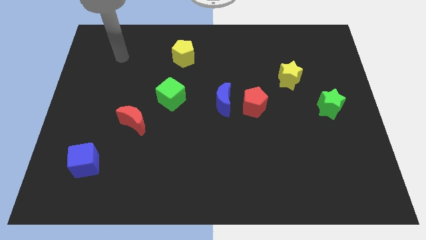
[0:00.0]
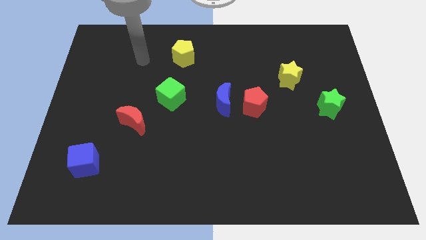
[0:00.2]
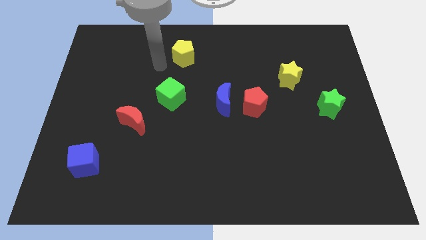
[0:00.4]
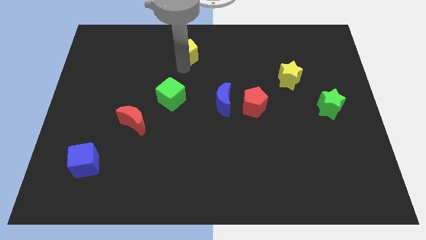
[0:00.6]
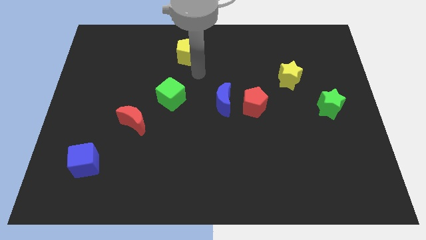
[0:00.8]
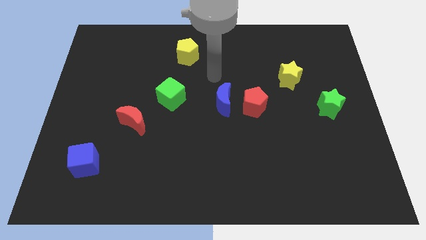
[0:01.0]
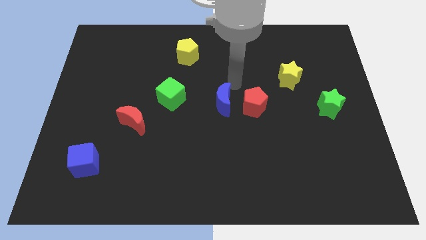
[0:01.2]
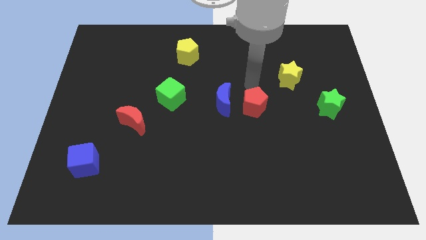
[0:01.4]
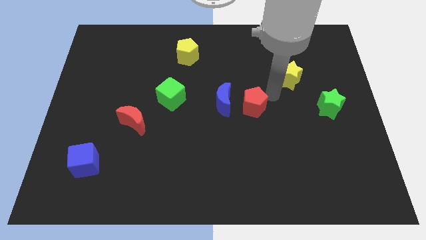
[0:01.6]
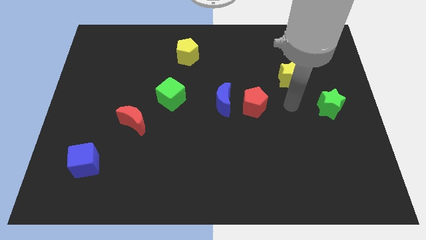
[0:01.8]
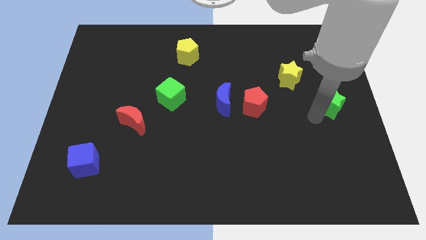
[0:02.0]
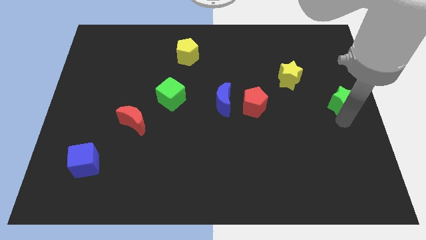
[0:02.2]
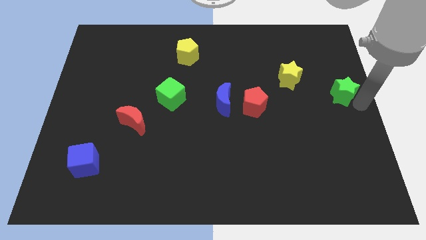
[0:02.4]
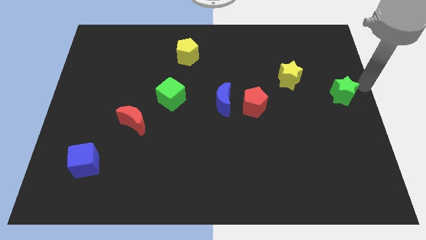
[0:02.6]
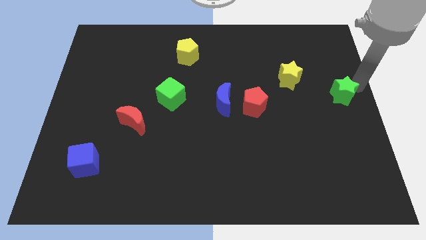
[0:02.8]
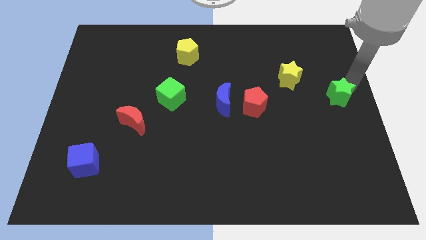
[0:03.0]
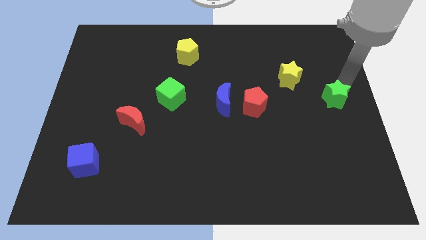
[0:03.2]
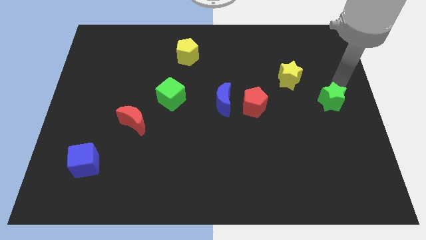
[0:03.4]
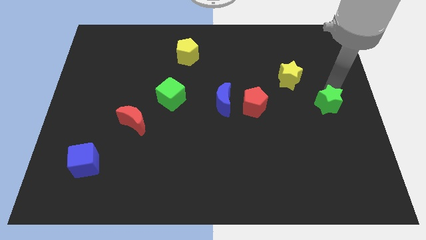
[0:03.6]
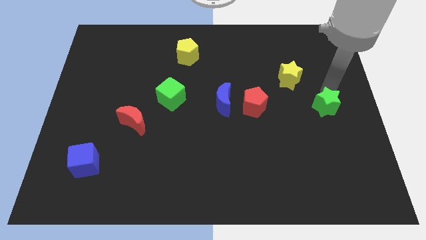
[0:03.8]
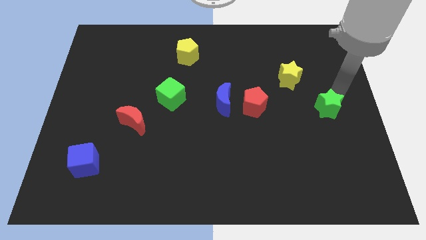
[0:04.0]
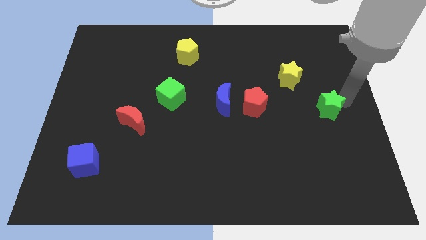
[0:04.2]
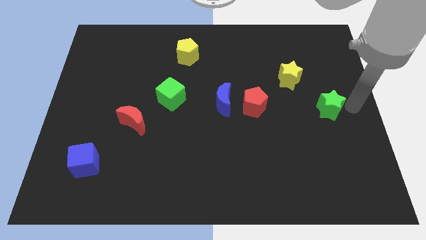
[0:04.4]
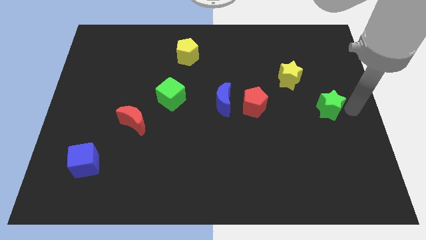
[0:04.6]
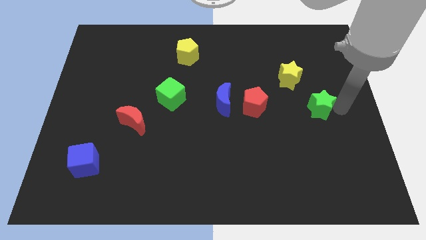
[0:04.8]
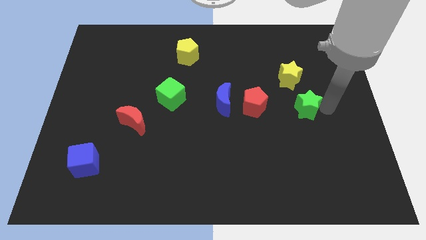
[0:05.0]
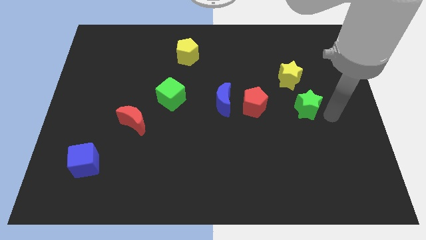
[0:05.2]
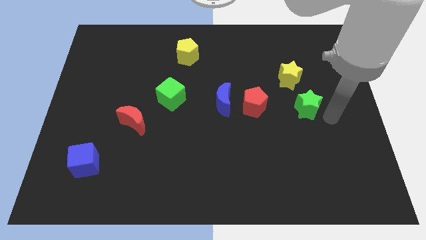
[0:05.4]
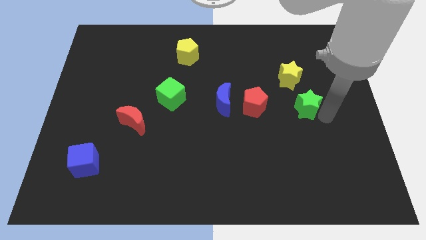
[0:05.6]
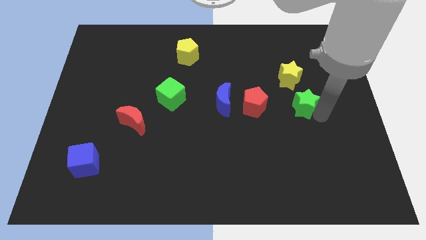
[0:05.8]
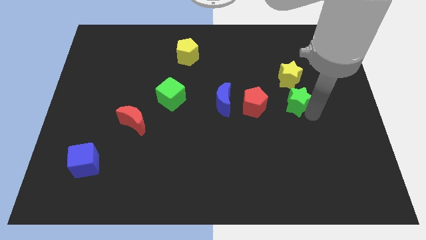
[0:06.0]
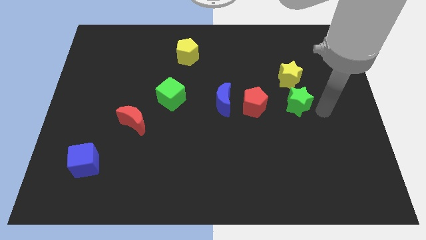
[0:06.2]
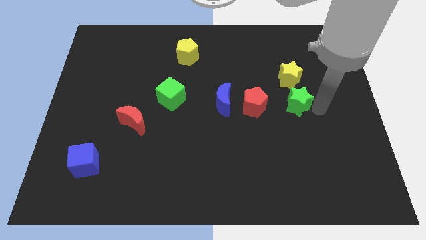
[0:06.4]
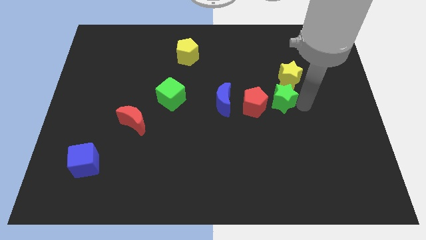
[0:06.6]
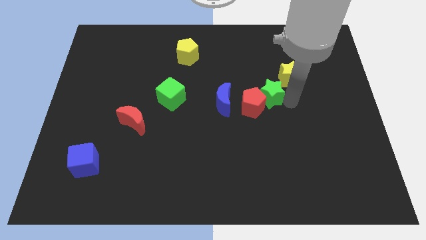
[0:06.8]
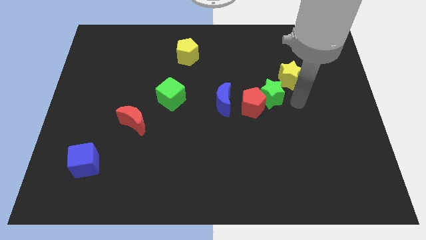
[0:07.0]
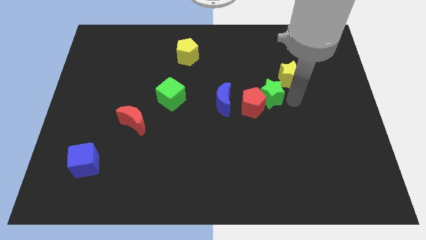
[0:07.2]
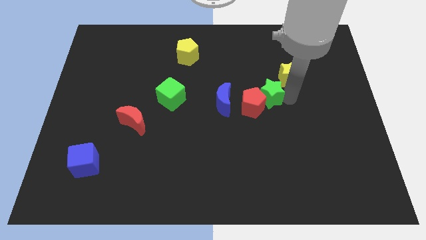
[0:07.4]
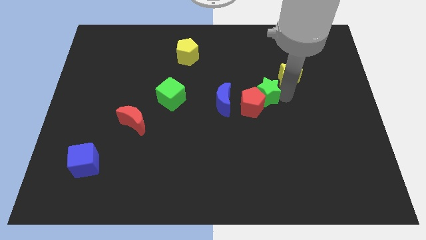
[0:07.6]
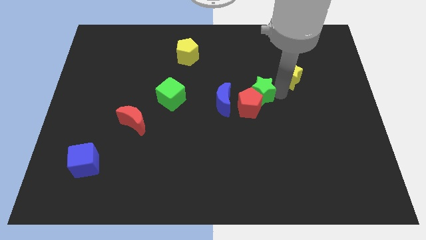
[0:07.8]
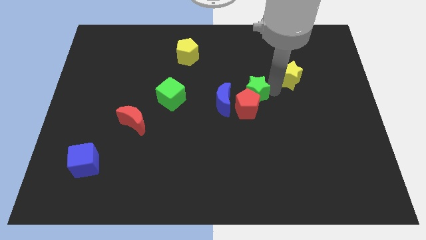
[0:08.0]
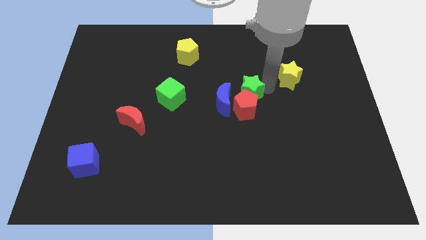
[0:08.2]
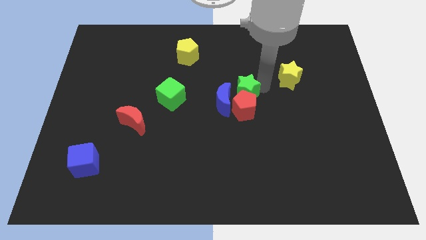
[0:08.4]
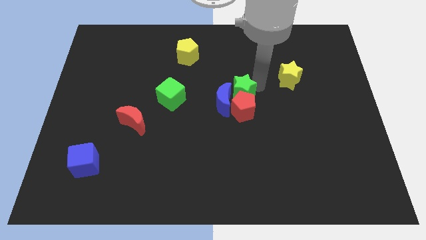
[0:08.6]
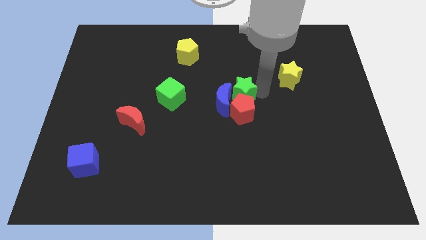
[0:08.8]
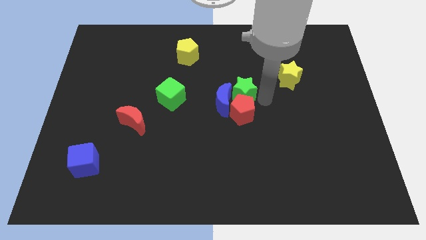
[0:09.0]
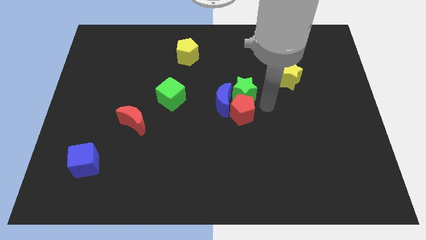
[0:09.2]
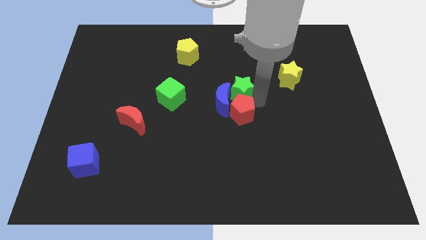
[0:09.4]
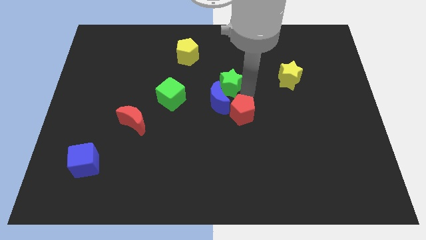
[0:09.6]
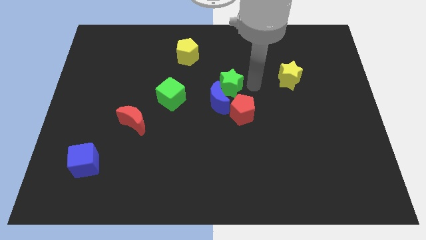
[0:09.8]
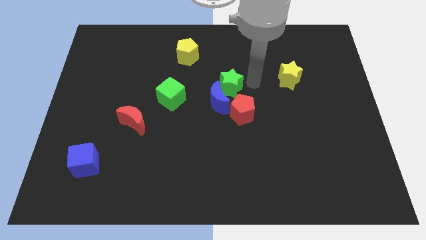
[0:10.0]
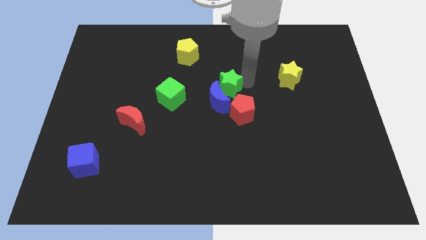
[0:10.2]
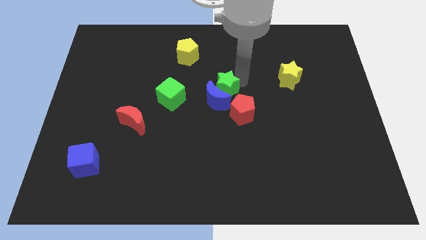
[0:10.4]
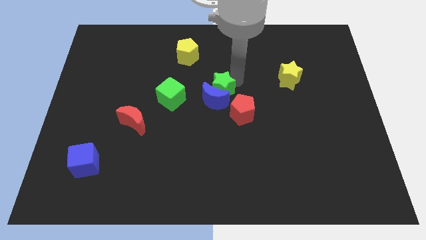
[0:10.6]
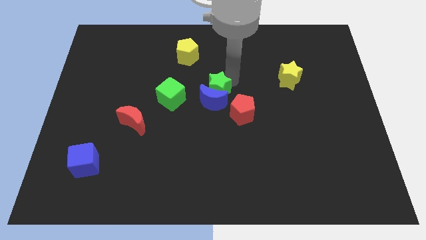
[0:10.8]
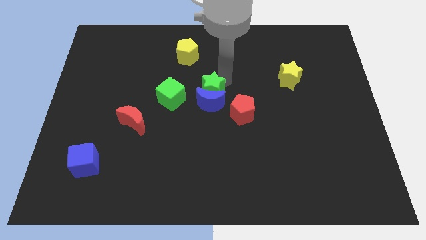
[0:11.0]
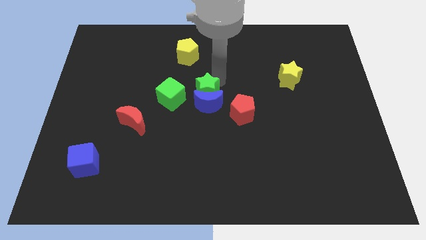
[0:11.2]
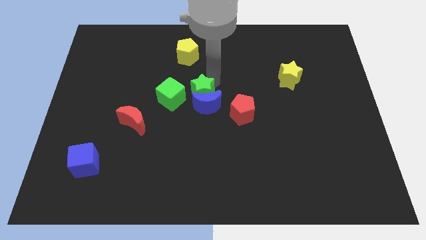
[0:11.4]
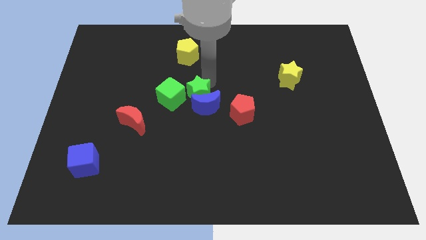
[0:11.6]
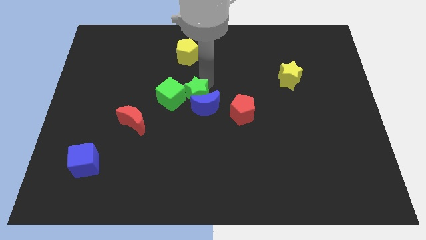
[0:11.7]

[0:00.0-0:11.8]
put the green star close to the green cube

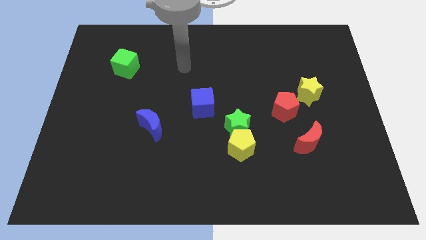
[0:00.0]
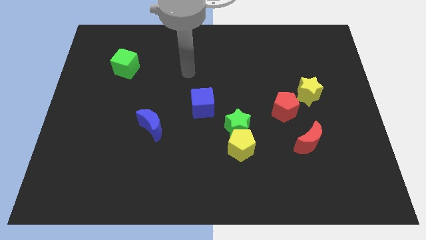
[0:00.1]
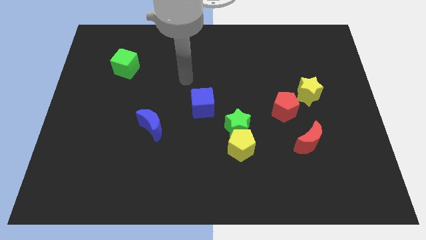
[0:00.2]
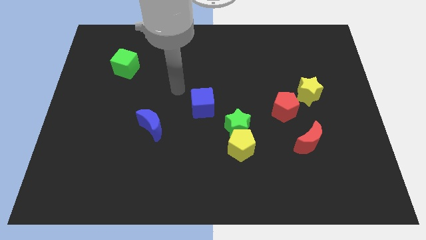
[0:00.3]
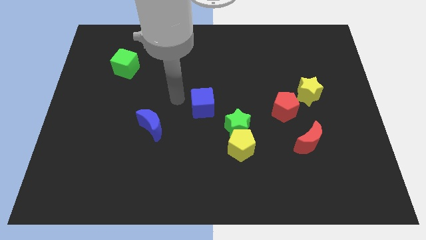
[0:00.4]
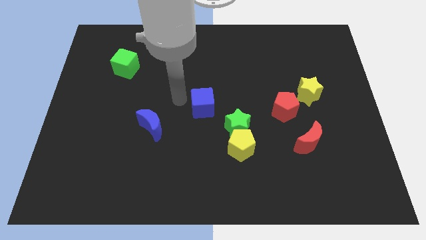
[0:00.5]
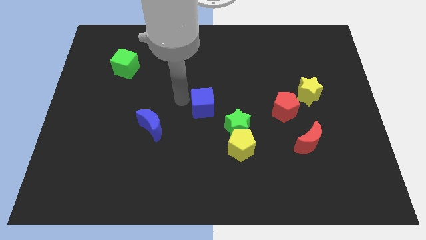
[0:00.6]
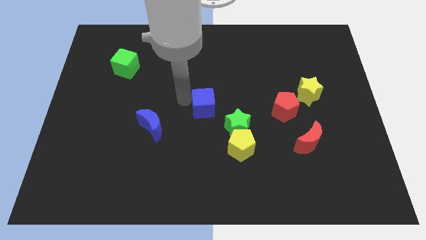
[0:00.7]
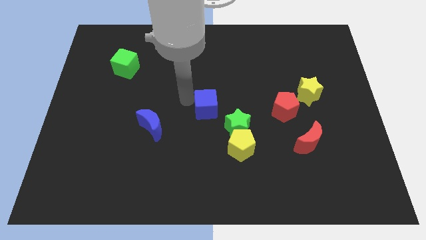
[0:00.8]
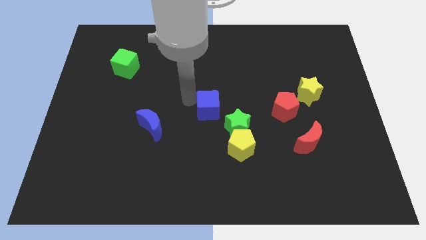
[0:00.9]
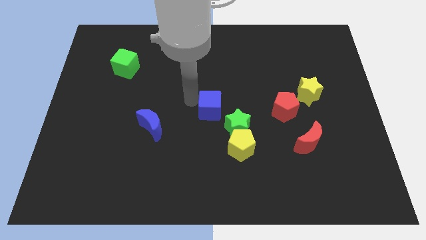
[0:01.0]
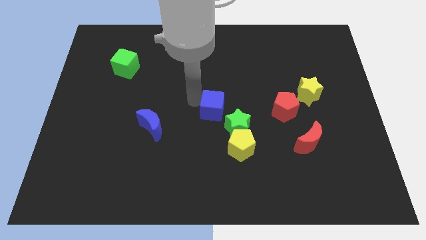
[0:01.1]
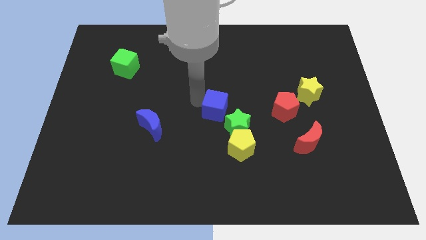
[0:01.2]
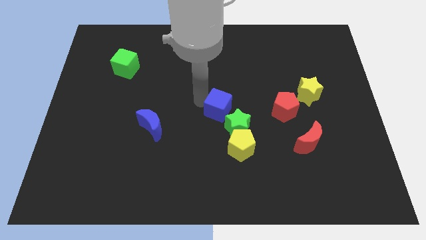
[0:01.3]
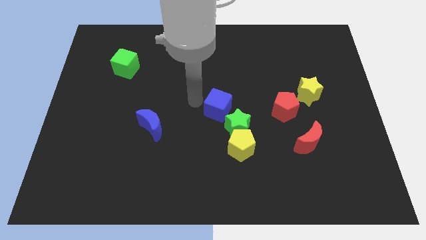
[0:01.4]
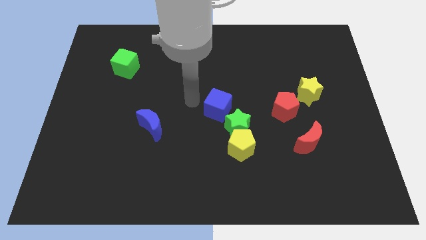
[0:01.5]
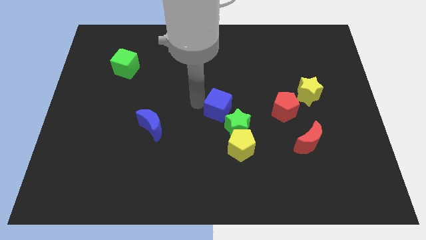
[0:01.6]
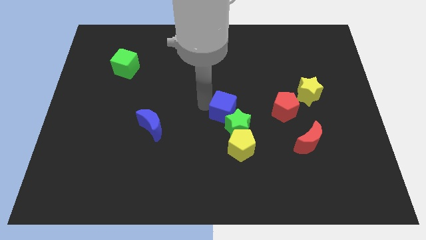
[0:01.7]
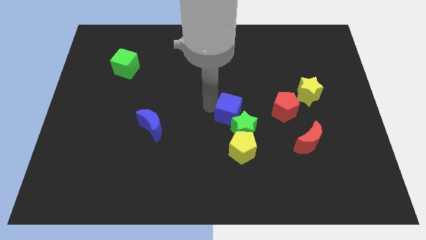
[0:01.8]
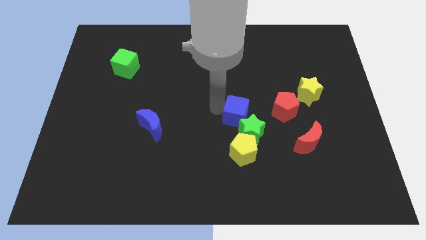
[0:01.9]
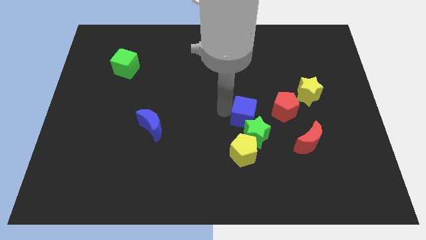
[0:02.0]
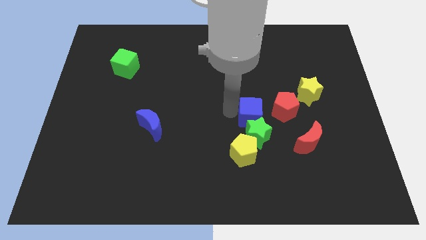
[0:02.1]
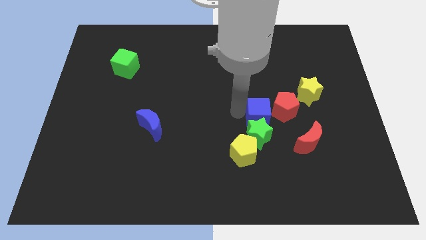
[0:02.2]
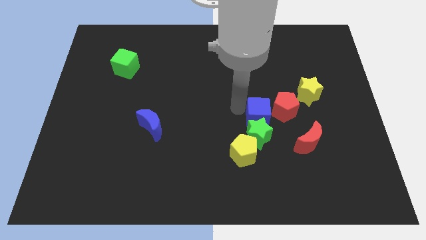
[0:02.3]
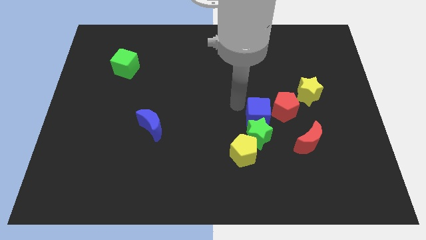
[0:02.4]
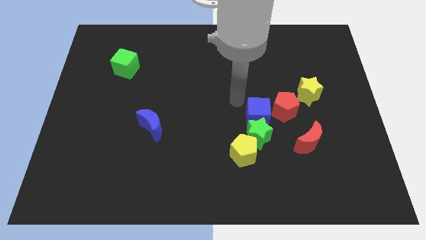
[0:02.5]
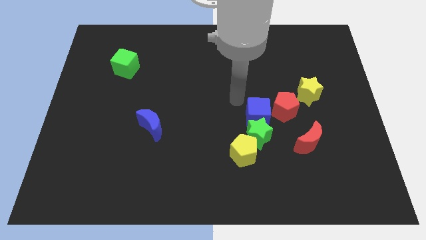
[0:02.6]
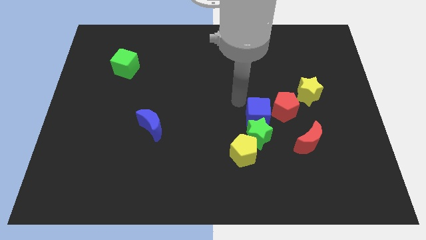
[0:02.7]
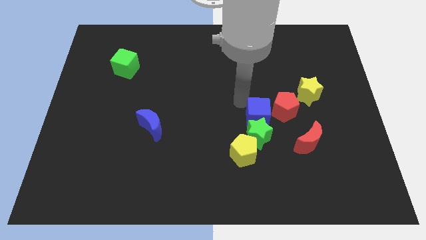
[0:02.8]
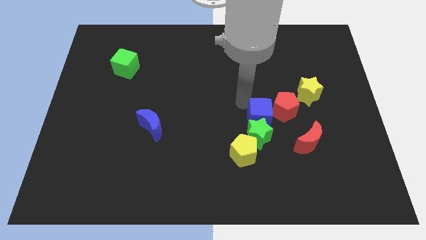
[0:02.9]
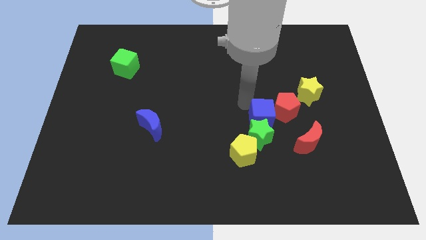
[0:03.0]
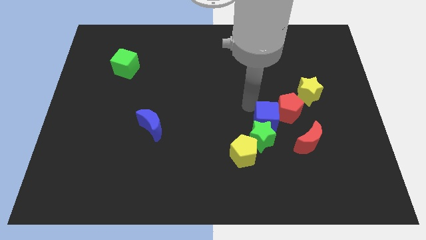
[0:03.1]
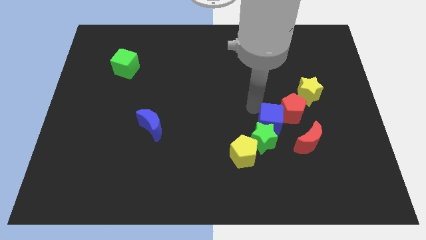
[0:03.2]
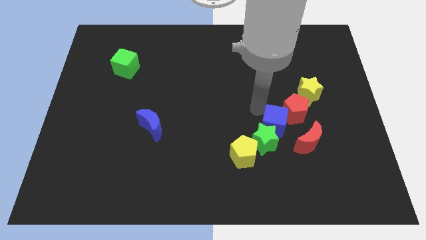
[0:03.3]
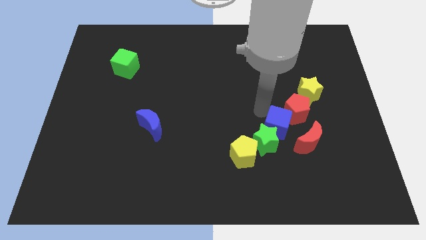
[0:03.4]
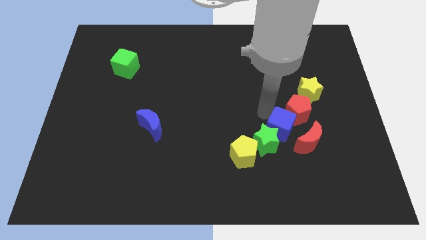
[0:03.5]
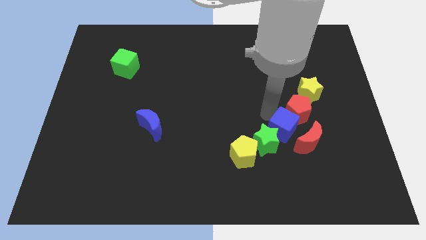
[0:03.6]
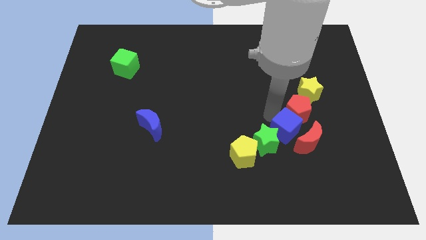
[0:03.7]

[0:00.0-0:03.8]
push the blue cube to the red moon
